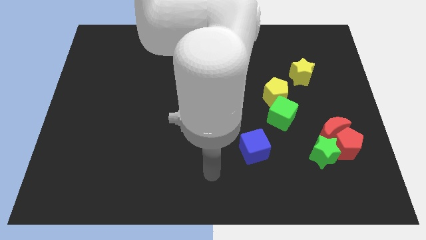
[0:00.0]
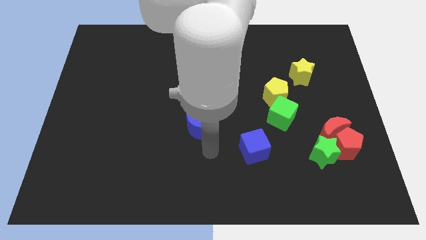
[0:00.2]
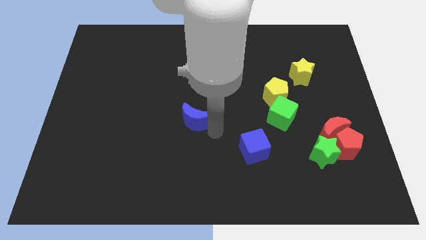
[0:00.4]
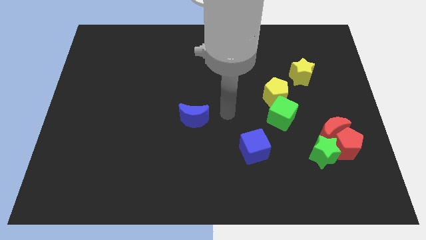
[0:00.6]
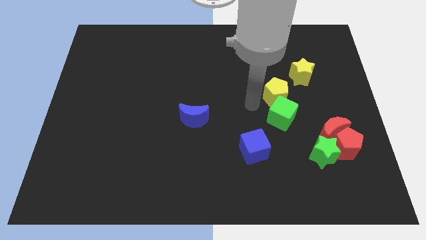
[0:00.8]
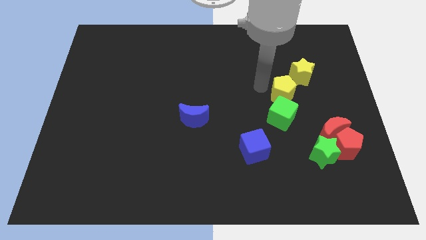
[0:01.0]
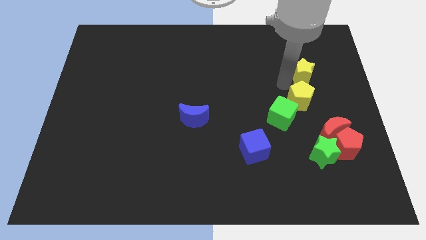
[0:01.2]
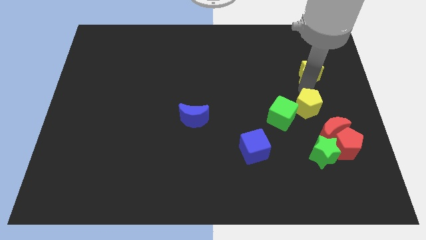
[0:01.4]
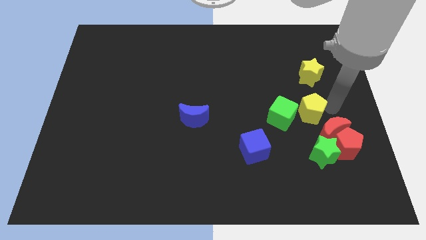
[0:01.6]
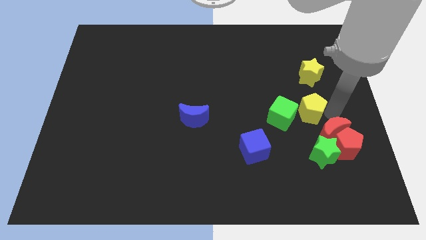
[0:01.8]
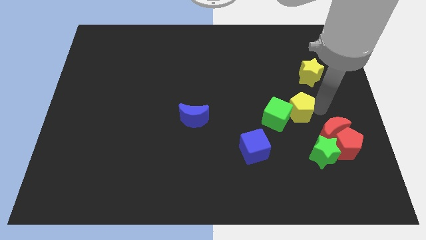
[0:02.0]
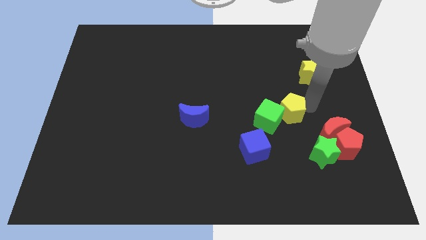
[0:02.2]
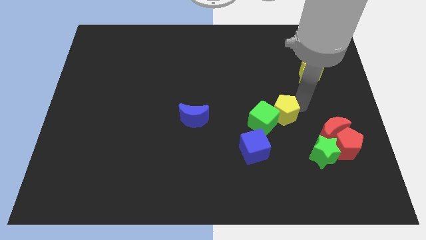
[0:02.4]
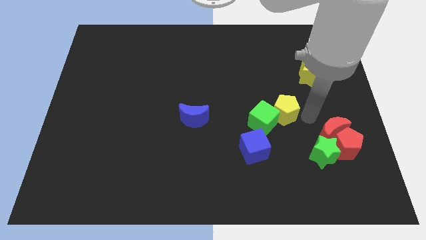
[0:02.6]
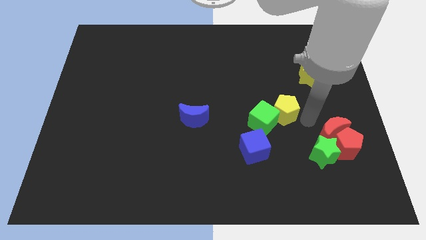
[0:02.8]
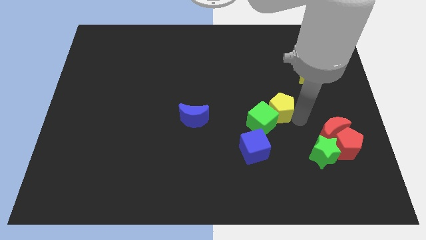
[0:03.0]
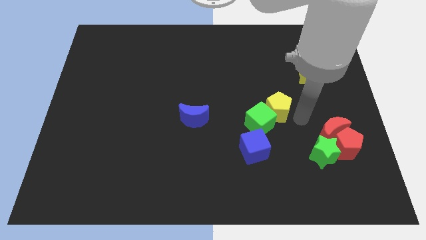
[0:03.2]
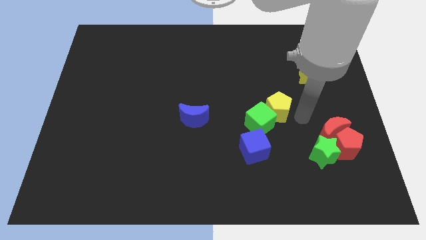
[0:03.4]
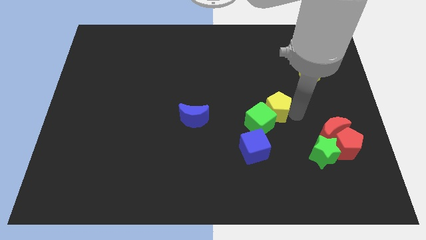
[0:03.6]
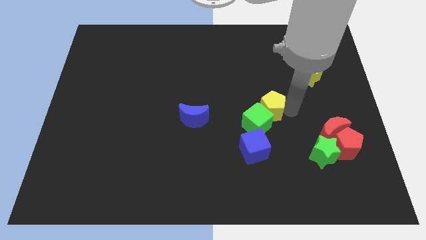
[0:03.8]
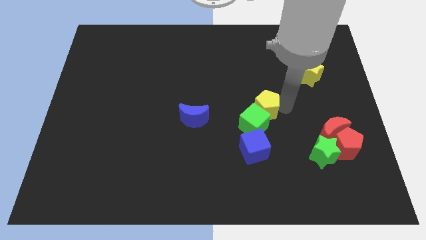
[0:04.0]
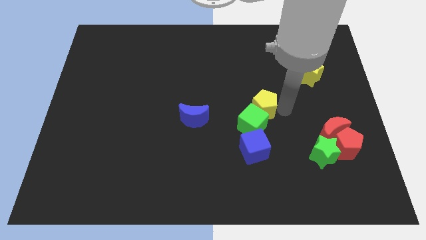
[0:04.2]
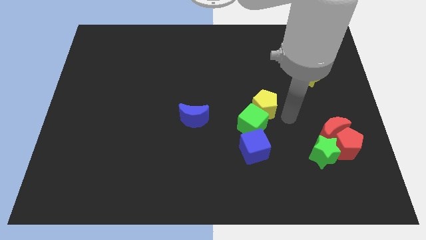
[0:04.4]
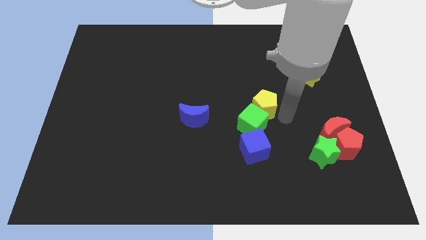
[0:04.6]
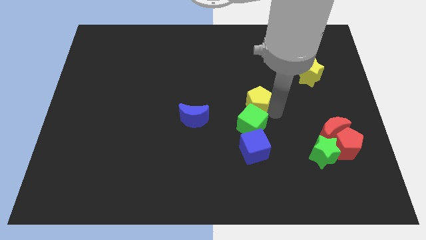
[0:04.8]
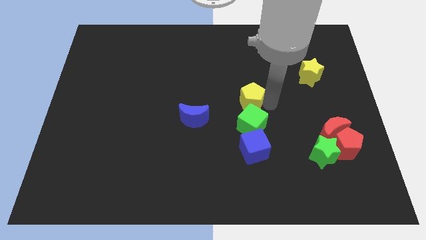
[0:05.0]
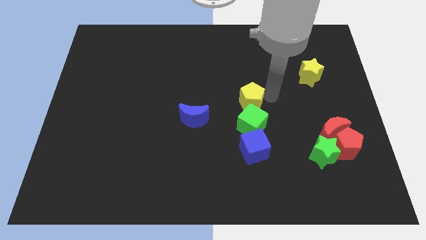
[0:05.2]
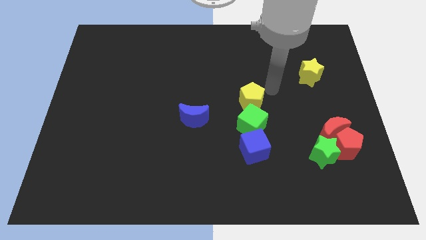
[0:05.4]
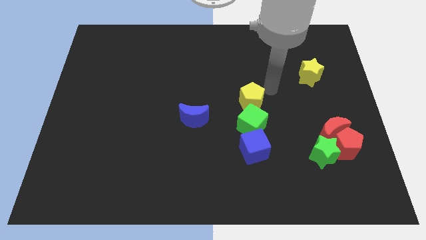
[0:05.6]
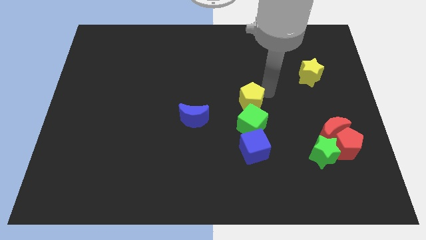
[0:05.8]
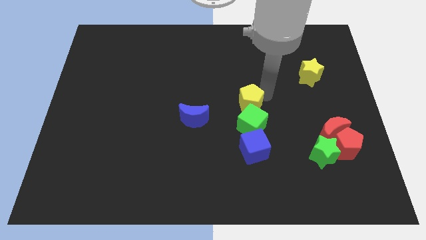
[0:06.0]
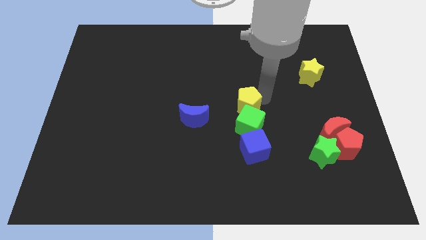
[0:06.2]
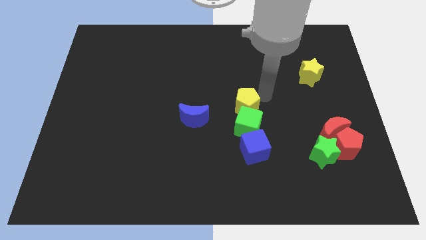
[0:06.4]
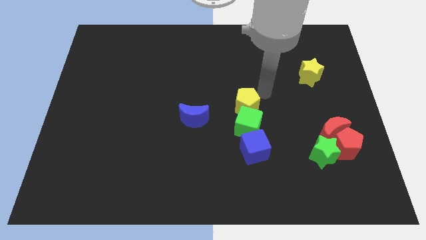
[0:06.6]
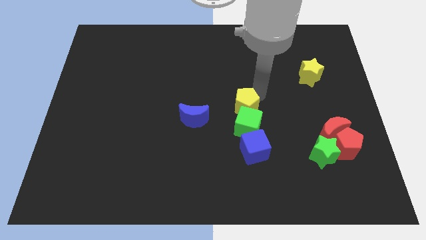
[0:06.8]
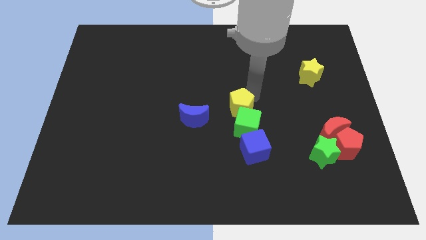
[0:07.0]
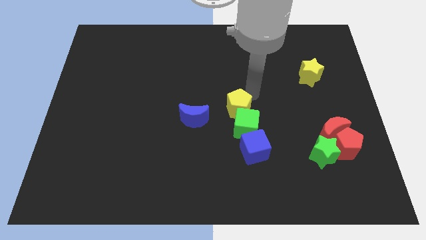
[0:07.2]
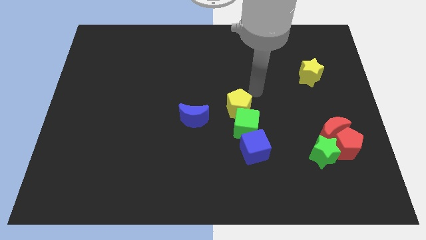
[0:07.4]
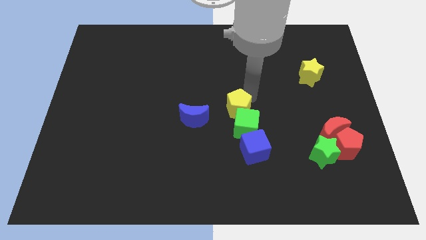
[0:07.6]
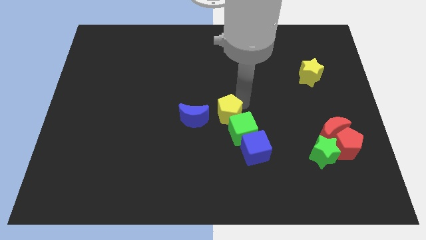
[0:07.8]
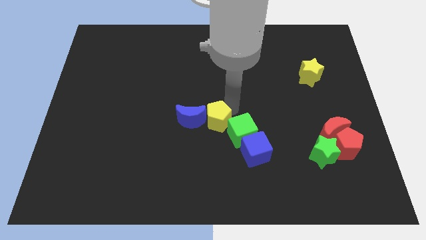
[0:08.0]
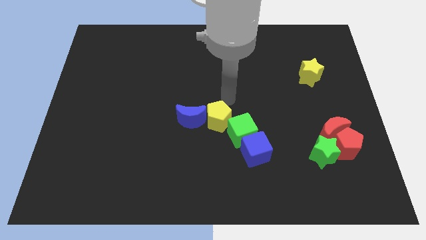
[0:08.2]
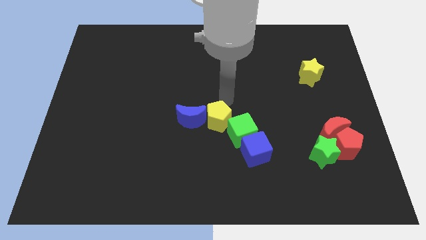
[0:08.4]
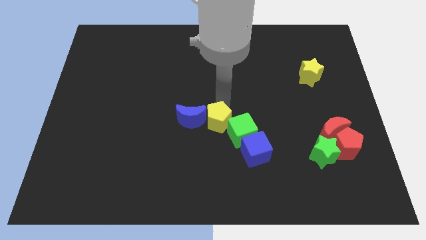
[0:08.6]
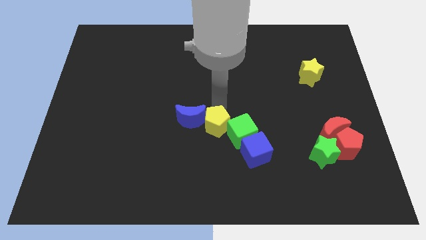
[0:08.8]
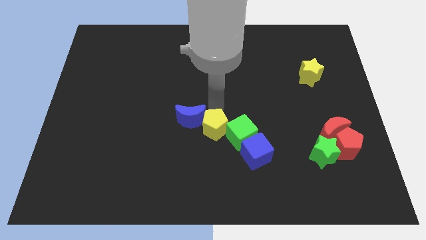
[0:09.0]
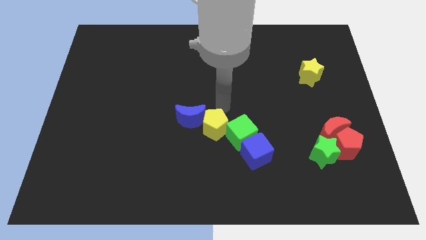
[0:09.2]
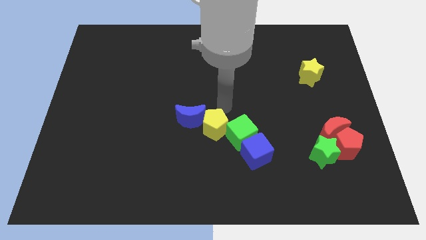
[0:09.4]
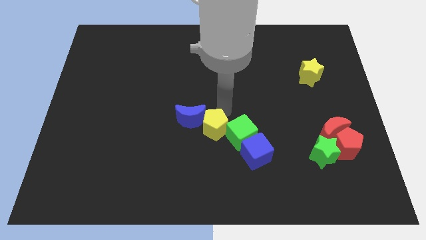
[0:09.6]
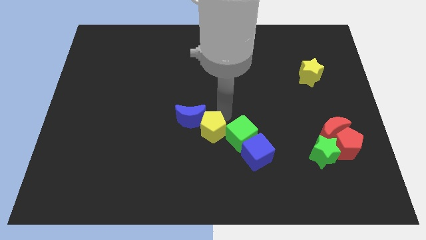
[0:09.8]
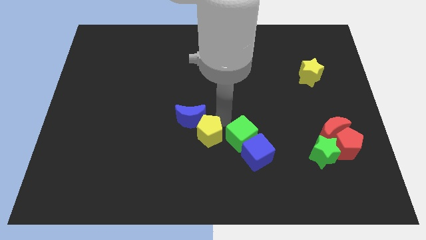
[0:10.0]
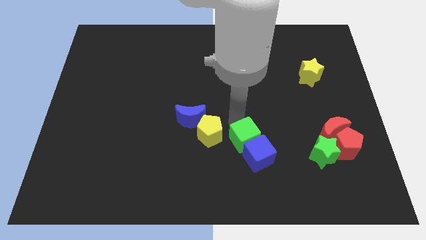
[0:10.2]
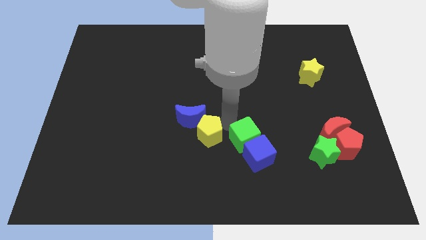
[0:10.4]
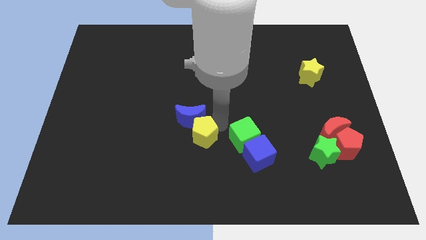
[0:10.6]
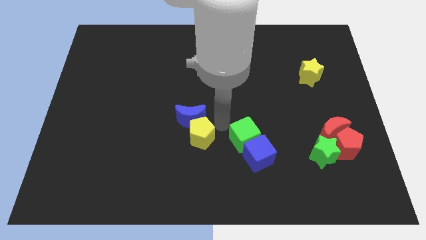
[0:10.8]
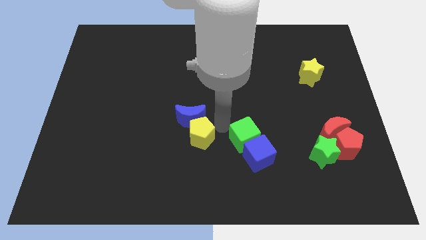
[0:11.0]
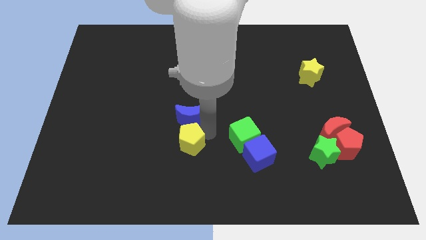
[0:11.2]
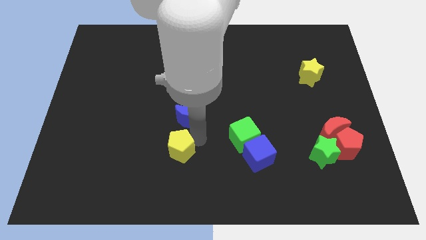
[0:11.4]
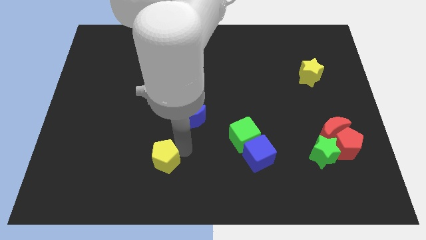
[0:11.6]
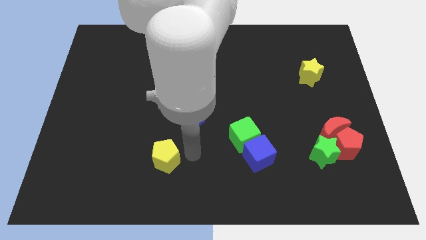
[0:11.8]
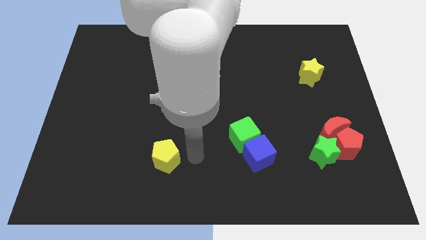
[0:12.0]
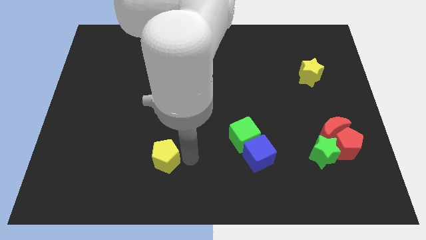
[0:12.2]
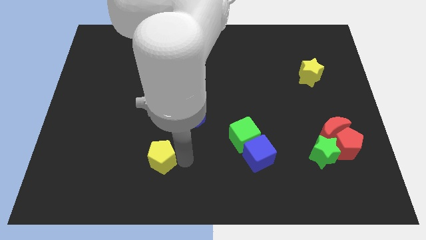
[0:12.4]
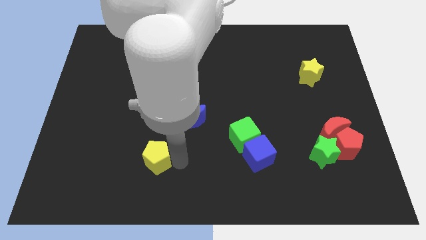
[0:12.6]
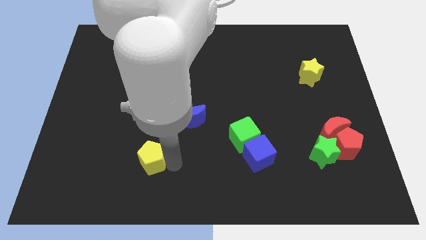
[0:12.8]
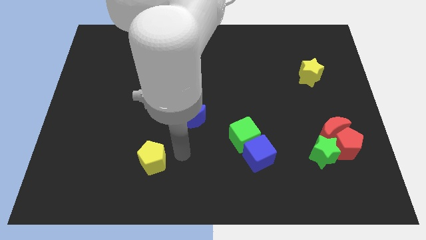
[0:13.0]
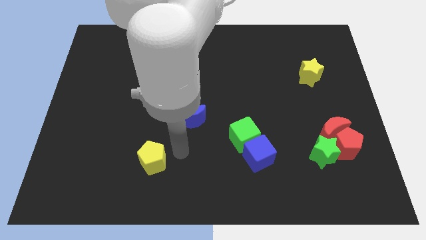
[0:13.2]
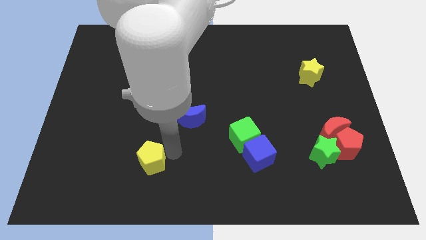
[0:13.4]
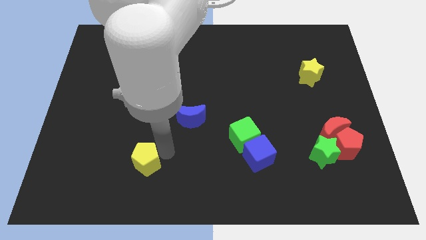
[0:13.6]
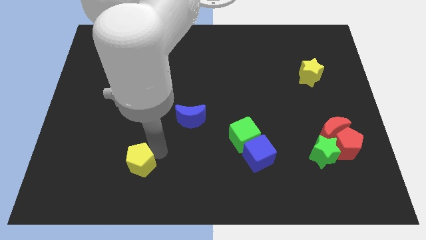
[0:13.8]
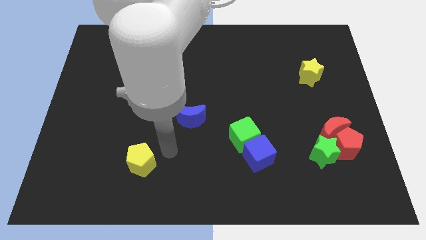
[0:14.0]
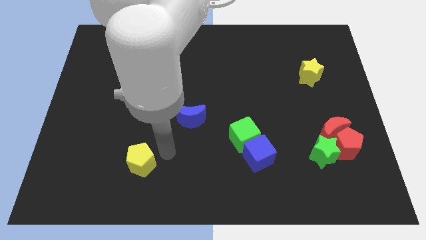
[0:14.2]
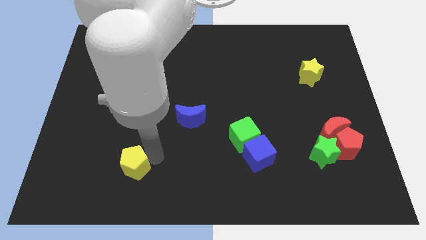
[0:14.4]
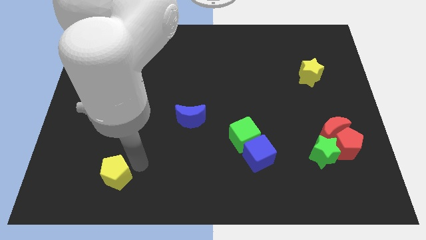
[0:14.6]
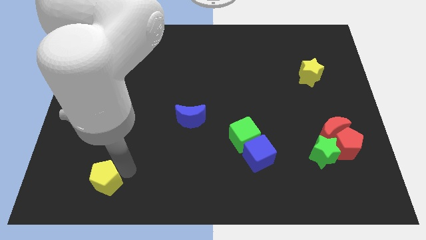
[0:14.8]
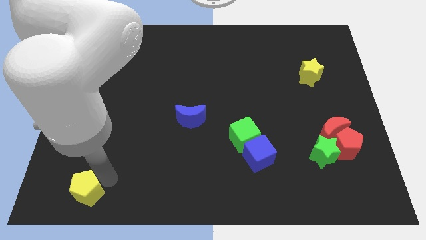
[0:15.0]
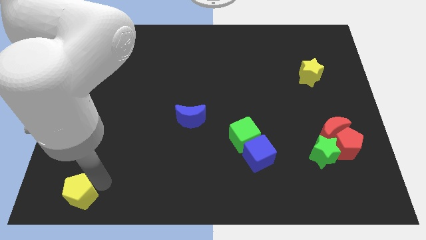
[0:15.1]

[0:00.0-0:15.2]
move the yellow pentagon to the lower left corner
